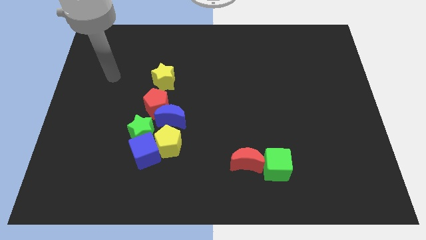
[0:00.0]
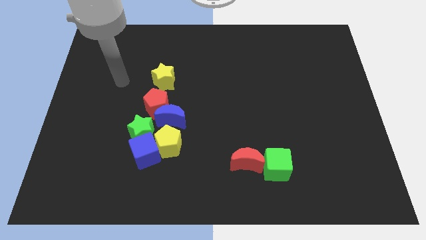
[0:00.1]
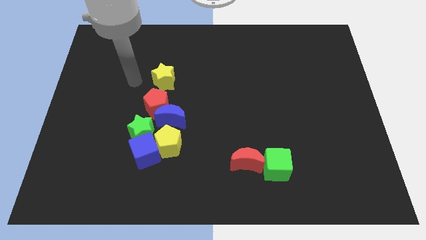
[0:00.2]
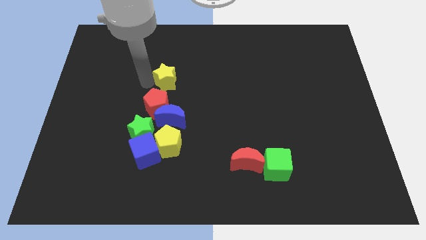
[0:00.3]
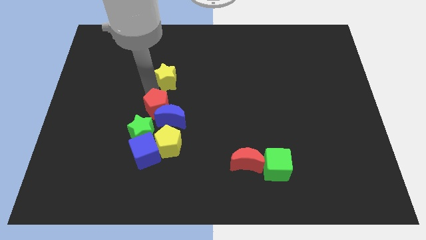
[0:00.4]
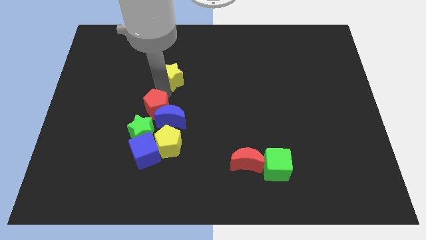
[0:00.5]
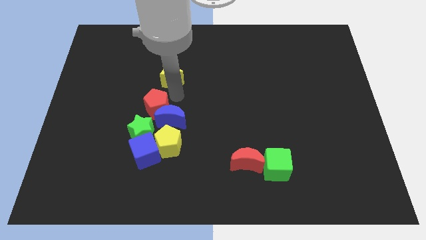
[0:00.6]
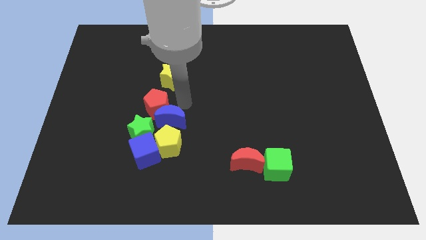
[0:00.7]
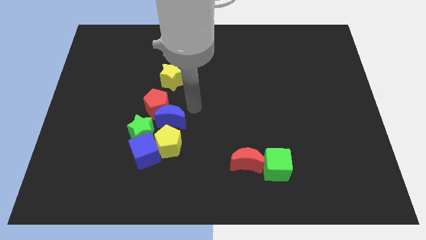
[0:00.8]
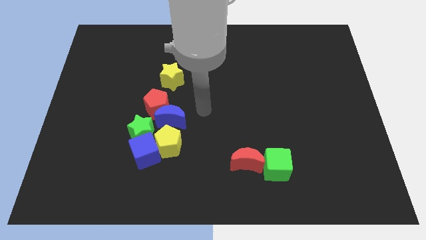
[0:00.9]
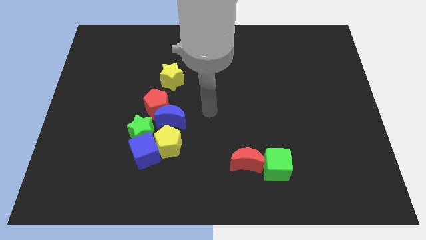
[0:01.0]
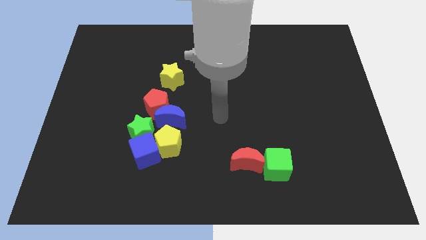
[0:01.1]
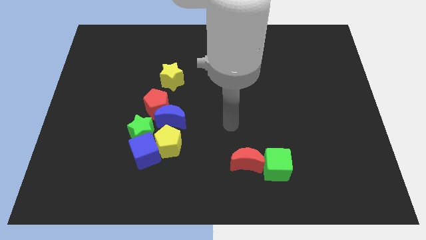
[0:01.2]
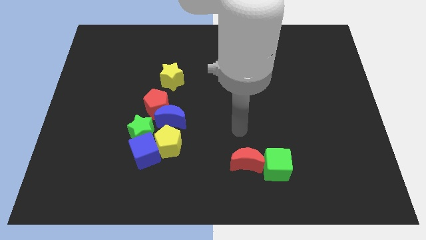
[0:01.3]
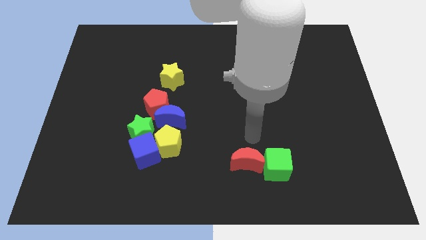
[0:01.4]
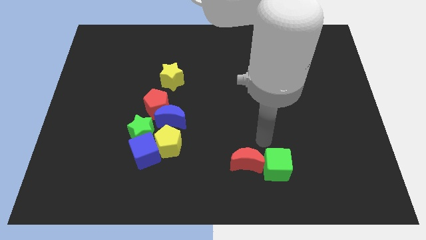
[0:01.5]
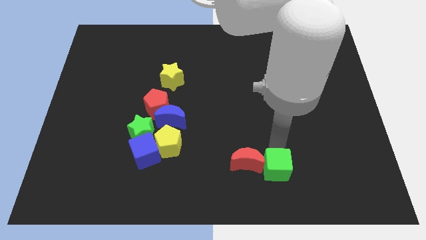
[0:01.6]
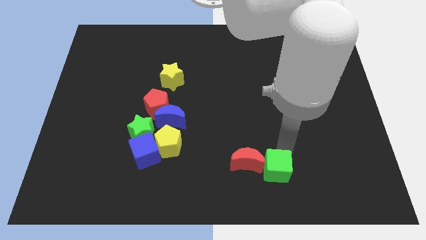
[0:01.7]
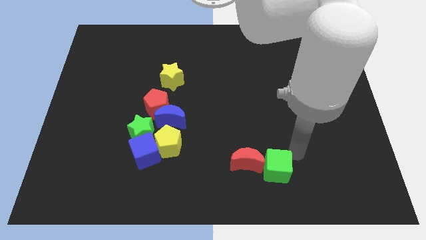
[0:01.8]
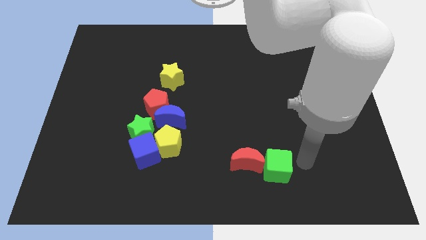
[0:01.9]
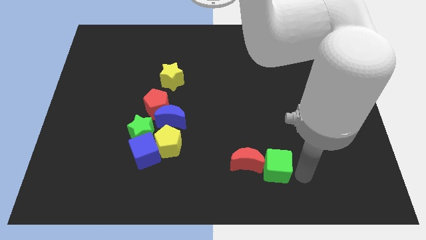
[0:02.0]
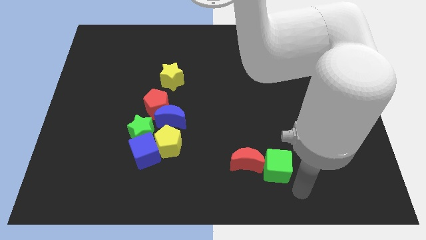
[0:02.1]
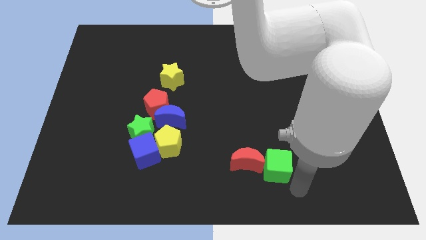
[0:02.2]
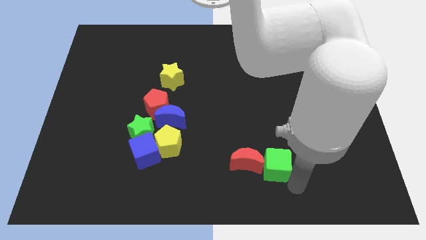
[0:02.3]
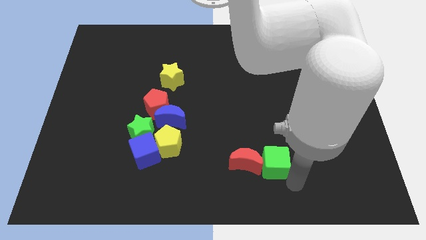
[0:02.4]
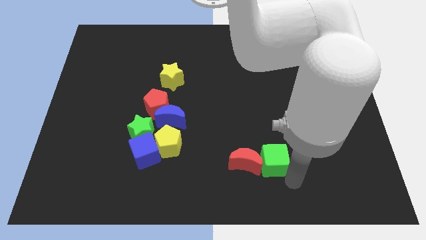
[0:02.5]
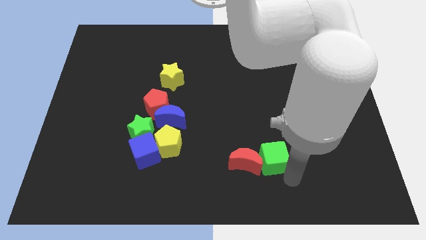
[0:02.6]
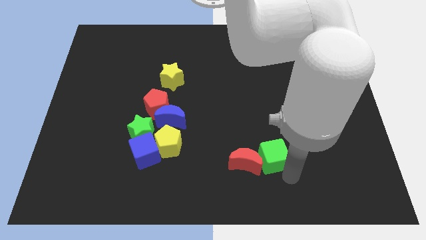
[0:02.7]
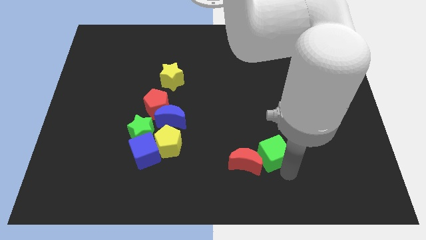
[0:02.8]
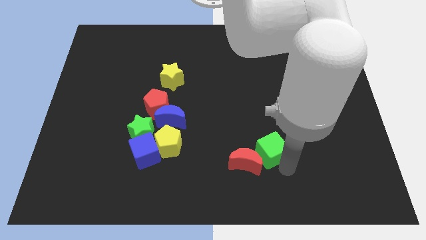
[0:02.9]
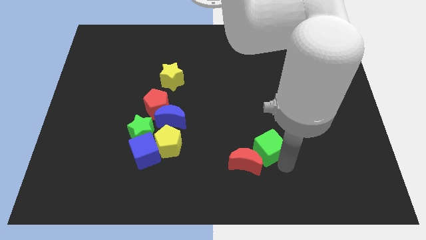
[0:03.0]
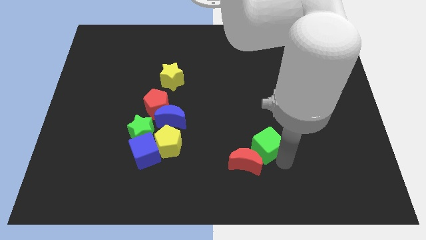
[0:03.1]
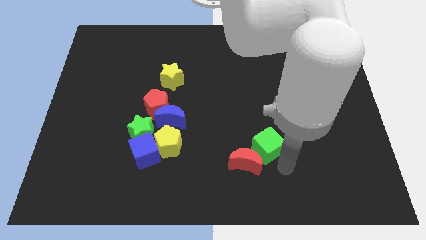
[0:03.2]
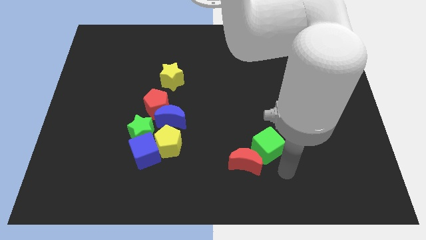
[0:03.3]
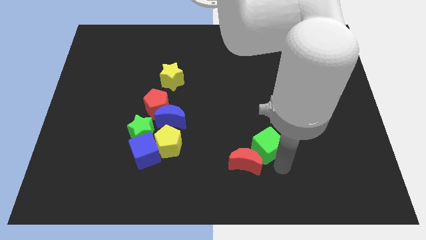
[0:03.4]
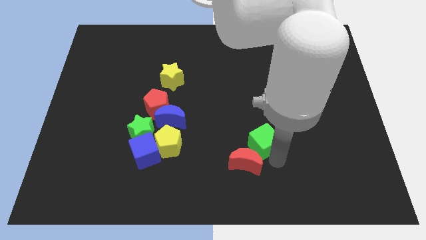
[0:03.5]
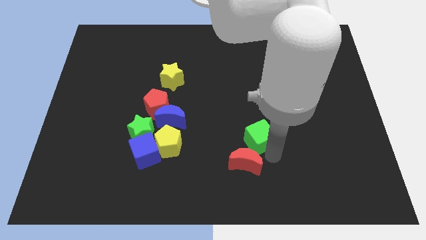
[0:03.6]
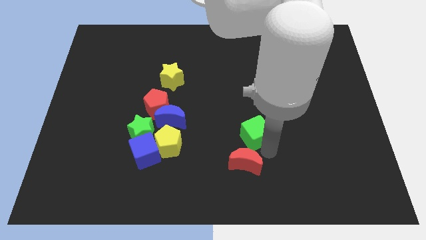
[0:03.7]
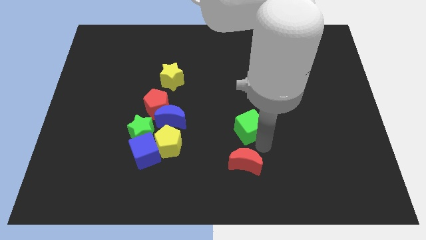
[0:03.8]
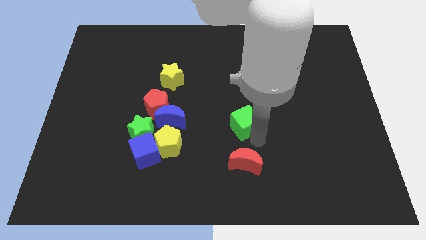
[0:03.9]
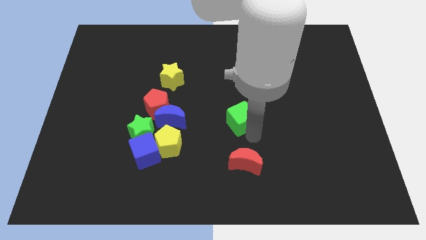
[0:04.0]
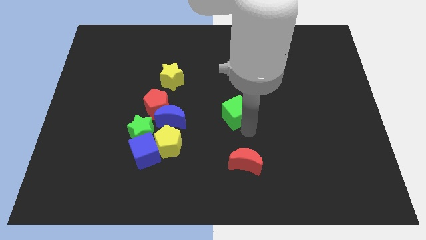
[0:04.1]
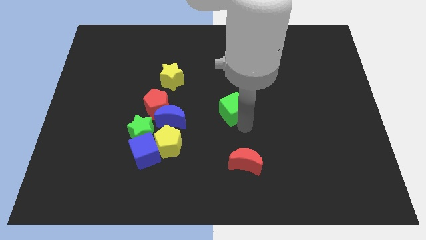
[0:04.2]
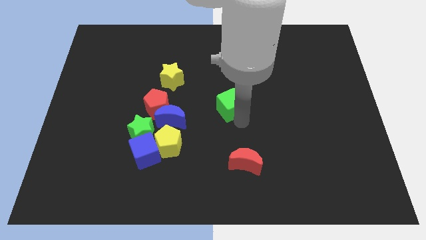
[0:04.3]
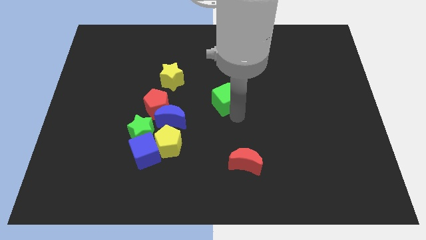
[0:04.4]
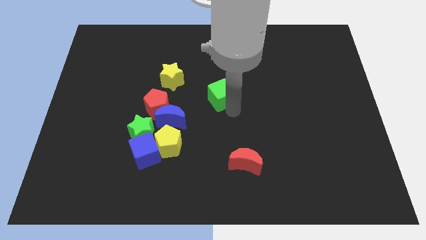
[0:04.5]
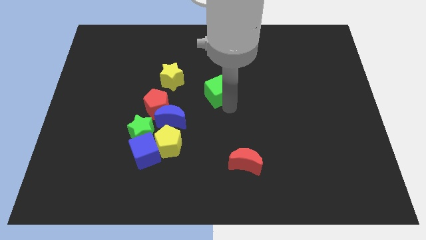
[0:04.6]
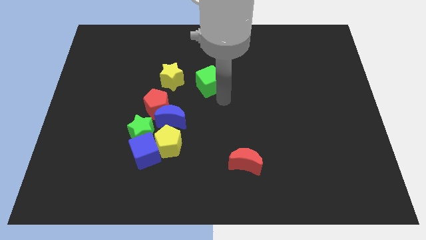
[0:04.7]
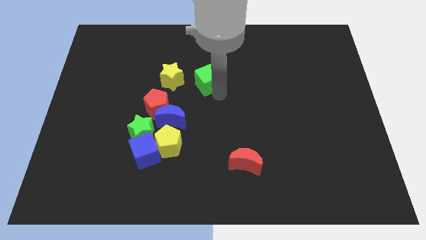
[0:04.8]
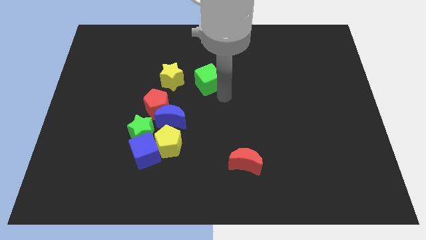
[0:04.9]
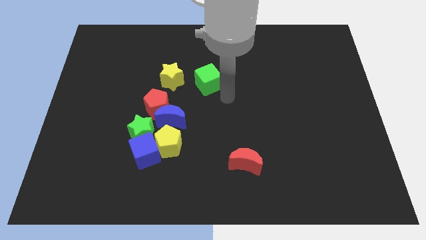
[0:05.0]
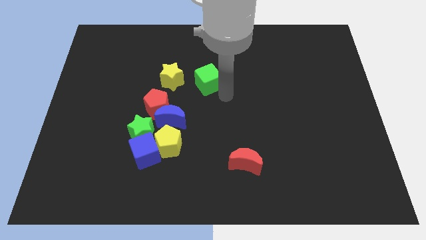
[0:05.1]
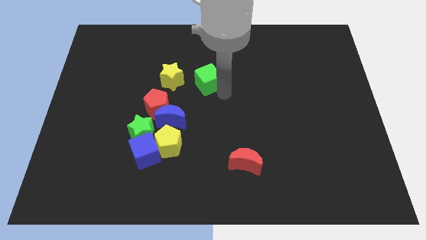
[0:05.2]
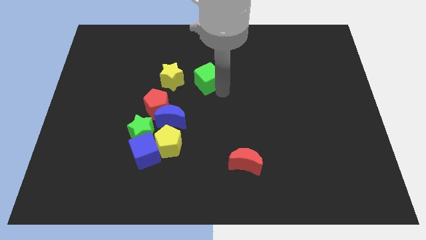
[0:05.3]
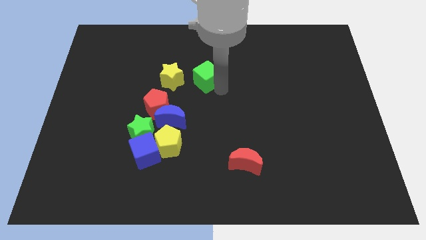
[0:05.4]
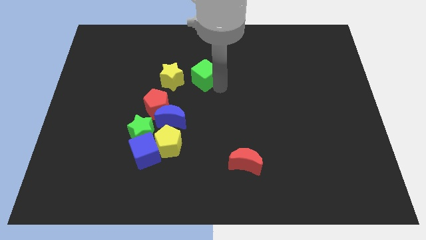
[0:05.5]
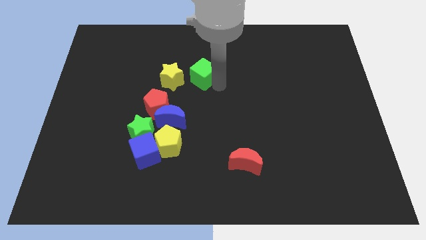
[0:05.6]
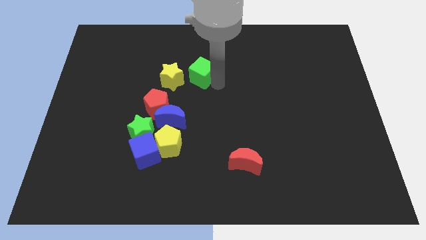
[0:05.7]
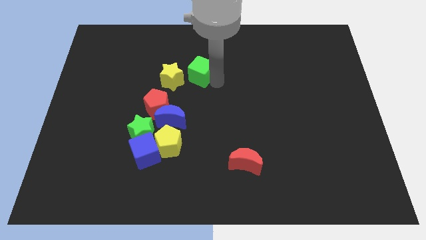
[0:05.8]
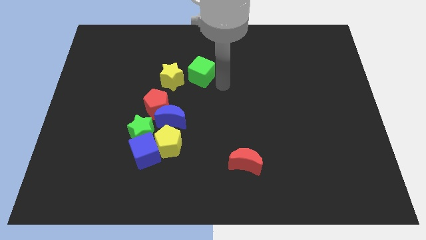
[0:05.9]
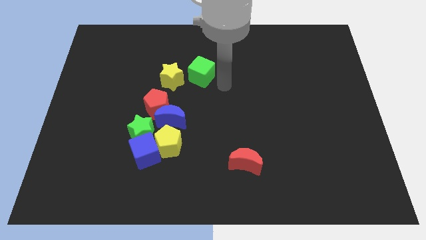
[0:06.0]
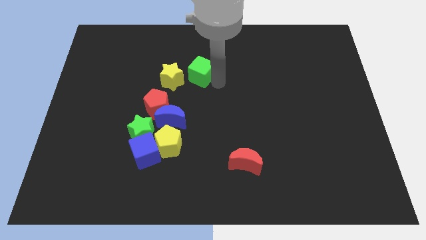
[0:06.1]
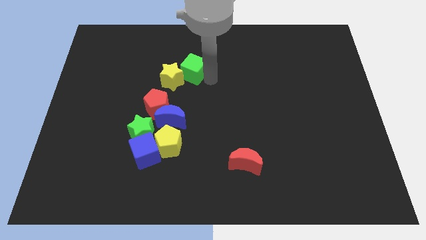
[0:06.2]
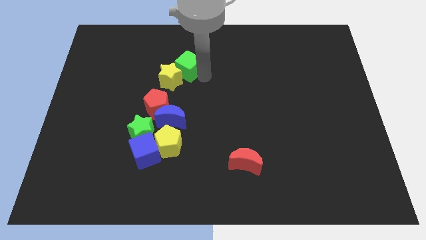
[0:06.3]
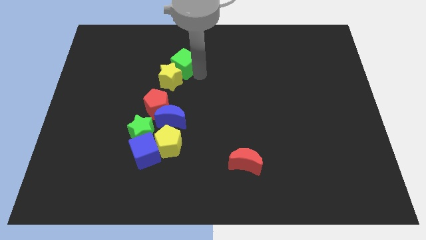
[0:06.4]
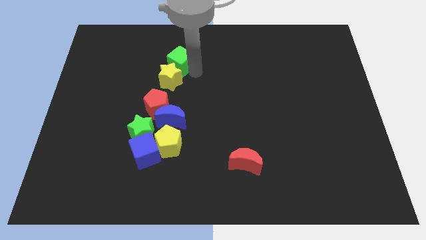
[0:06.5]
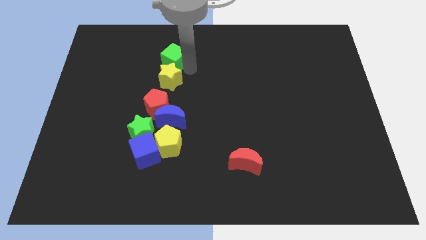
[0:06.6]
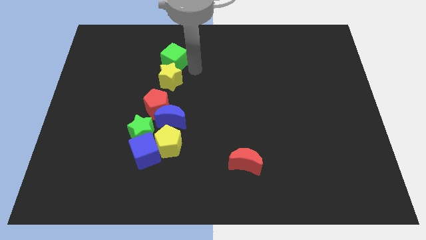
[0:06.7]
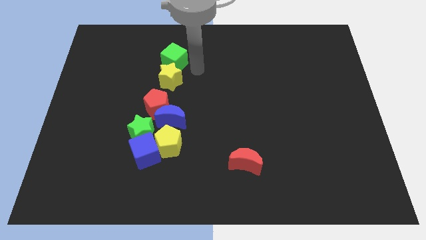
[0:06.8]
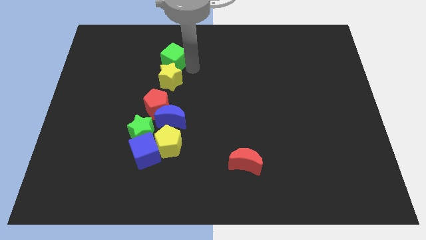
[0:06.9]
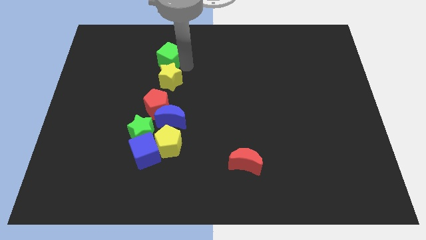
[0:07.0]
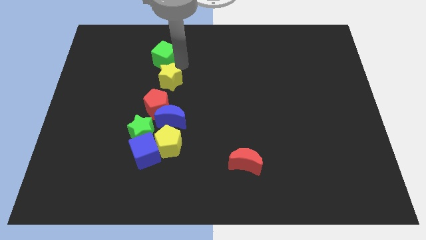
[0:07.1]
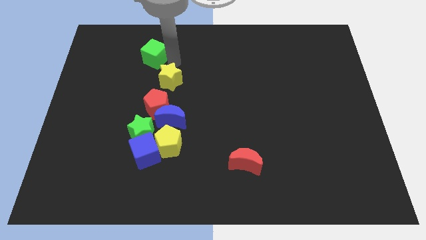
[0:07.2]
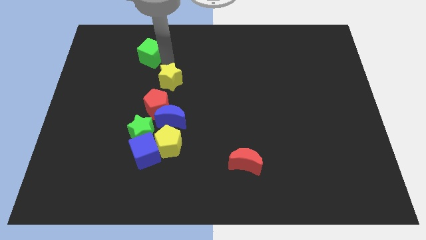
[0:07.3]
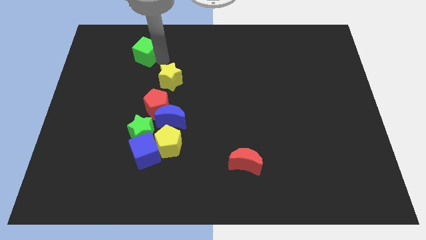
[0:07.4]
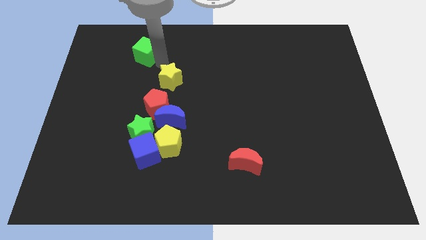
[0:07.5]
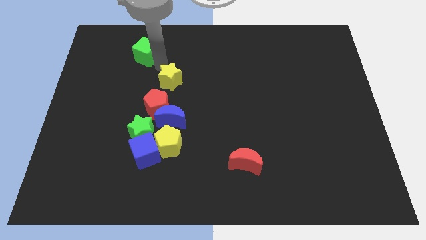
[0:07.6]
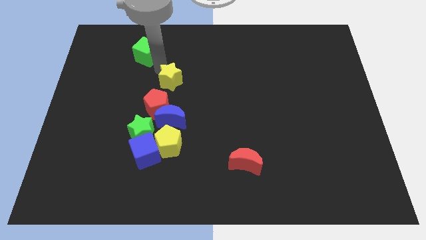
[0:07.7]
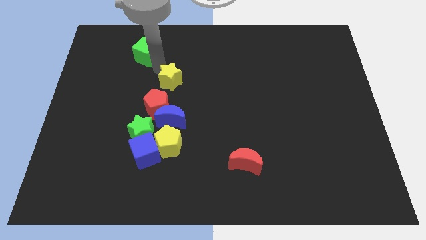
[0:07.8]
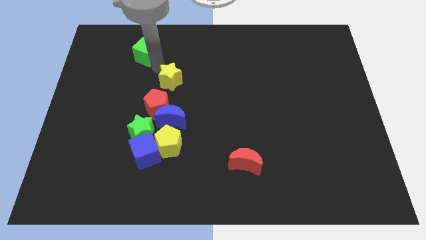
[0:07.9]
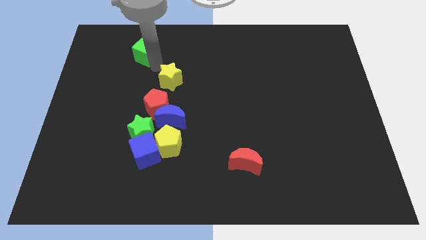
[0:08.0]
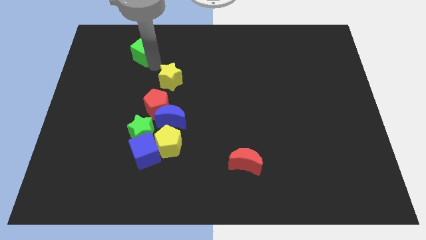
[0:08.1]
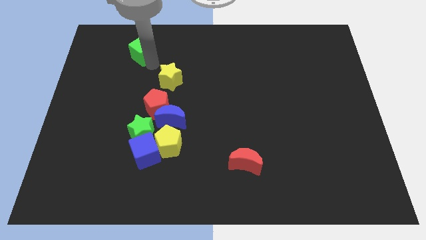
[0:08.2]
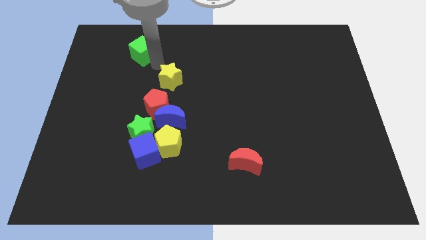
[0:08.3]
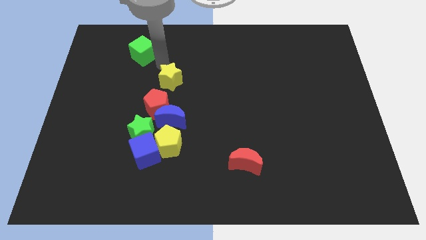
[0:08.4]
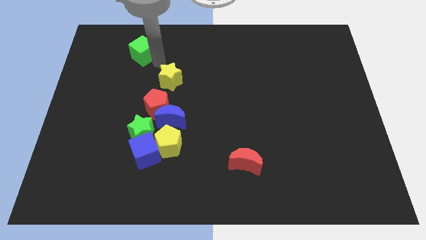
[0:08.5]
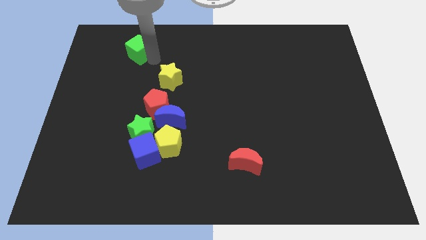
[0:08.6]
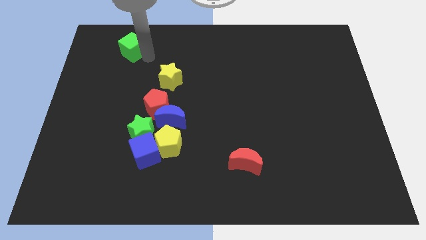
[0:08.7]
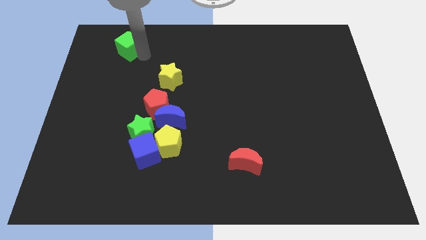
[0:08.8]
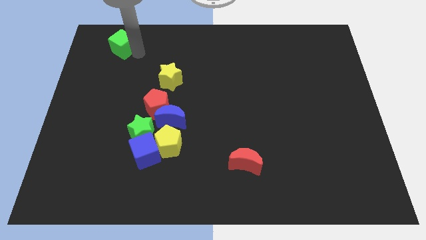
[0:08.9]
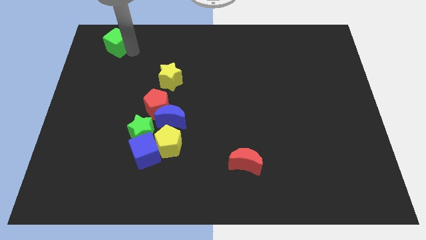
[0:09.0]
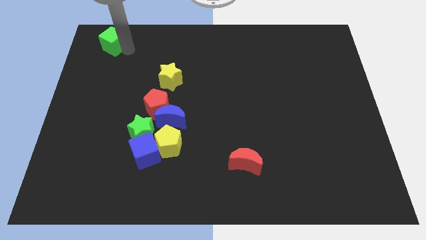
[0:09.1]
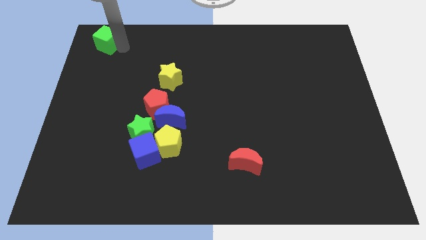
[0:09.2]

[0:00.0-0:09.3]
push the green cube to the top left
